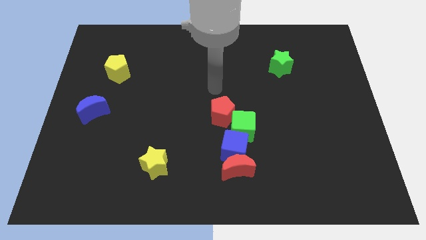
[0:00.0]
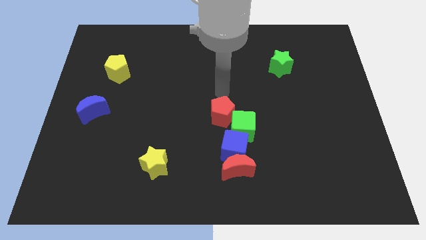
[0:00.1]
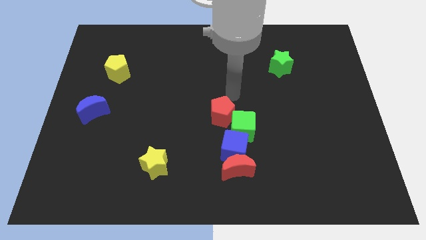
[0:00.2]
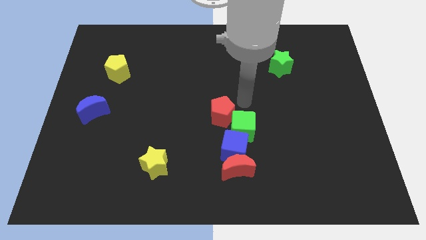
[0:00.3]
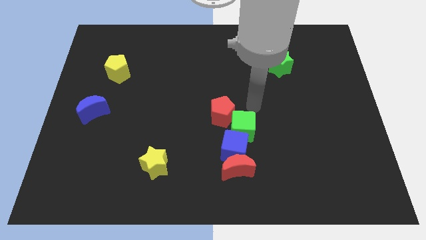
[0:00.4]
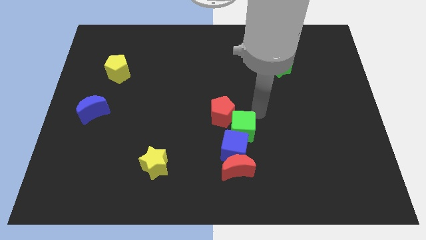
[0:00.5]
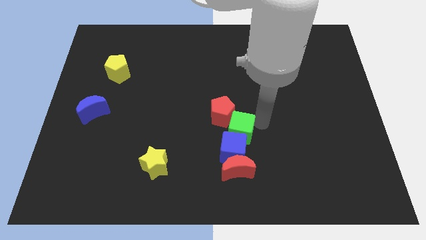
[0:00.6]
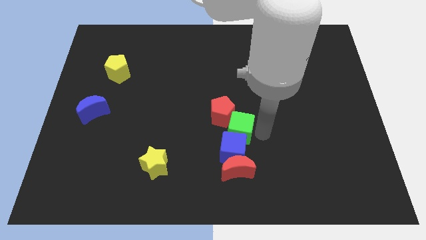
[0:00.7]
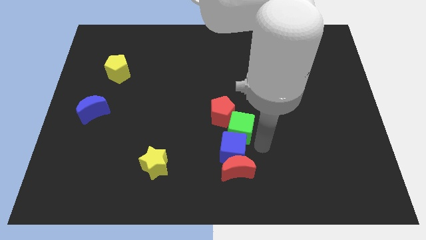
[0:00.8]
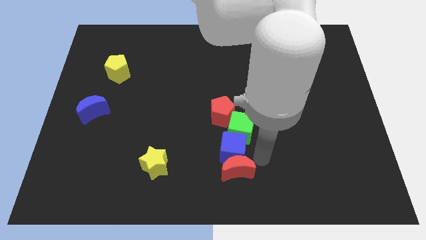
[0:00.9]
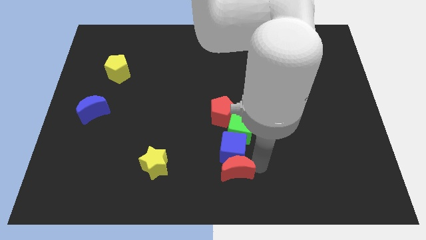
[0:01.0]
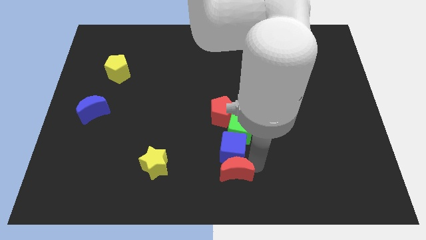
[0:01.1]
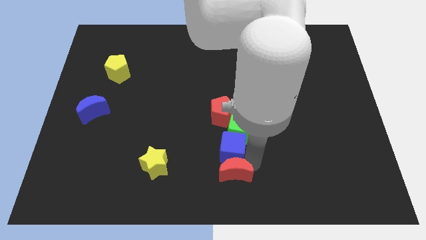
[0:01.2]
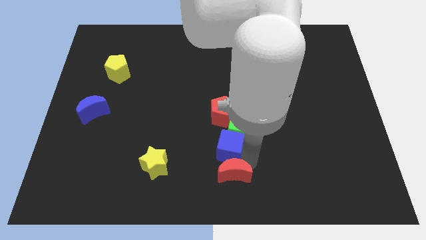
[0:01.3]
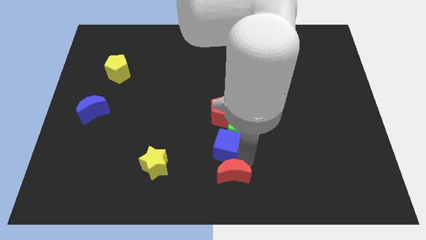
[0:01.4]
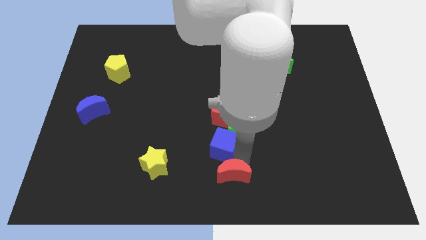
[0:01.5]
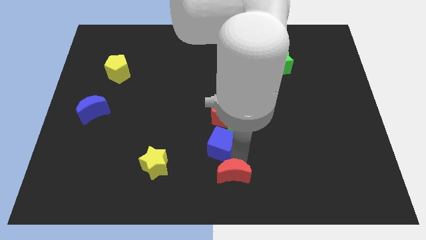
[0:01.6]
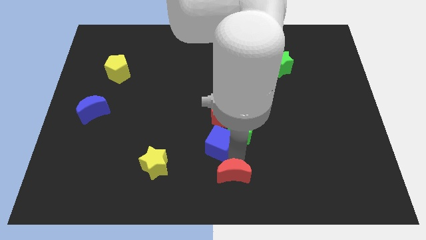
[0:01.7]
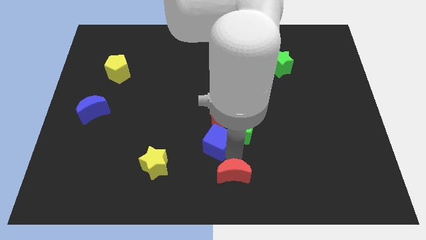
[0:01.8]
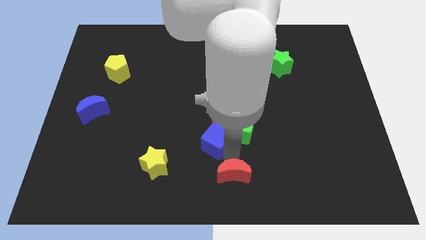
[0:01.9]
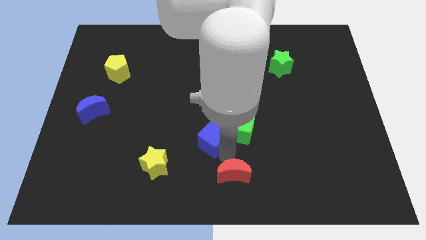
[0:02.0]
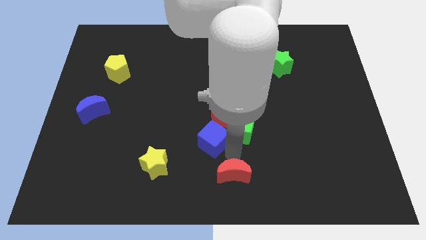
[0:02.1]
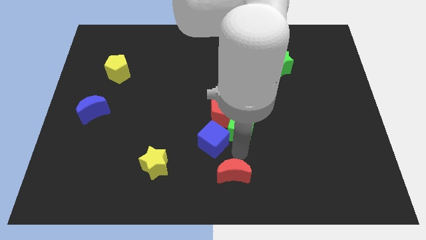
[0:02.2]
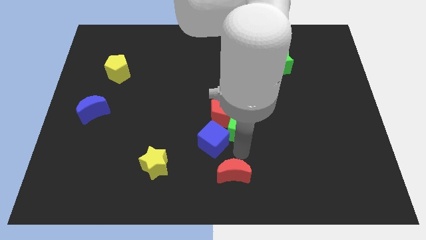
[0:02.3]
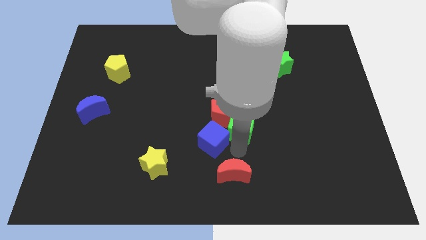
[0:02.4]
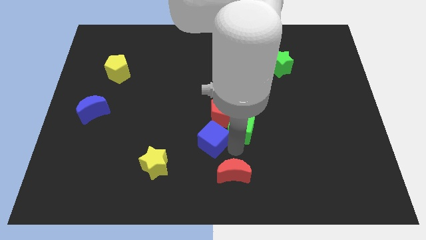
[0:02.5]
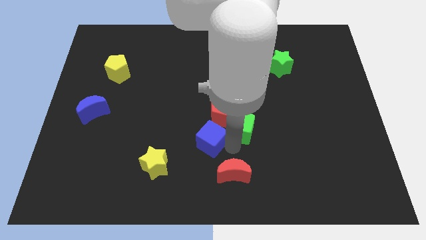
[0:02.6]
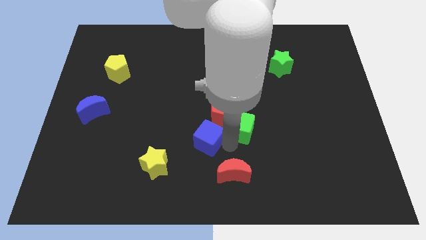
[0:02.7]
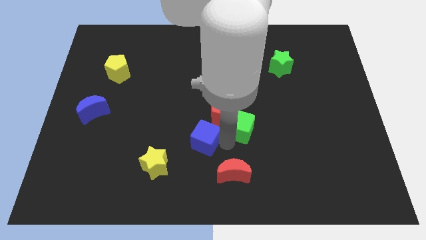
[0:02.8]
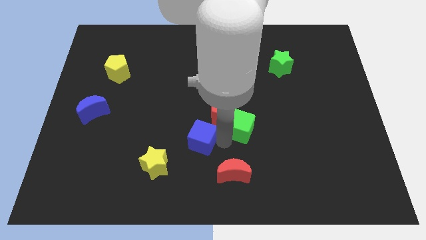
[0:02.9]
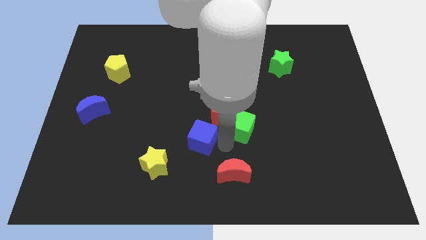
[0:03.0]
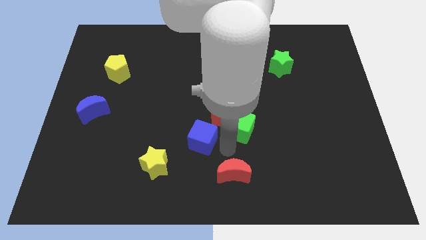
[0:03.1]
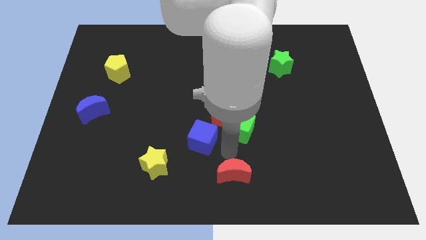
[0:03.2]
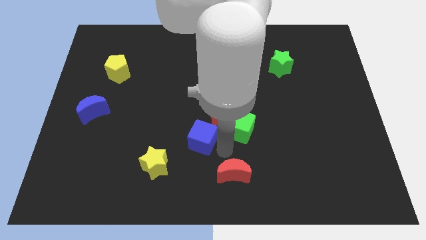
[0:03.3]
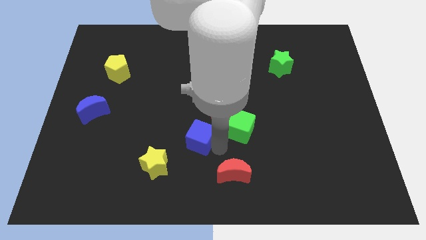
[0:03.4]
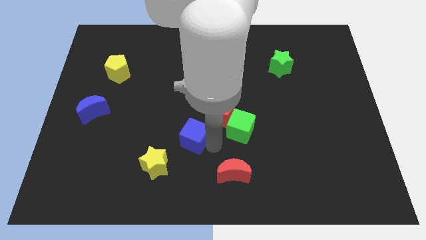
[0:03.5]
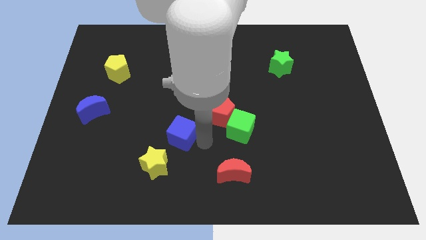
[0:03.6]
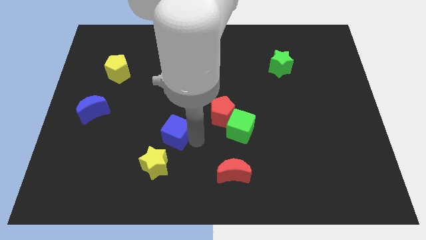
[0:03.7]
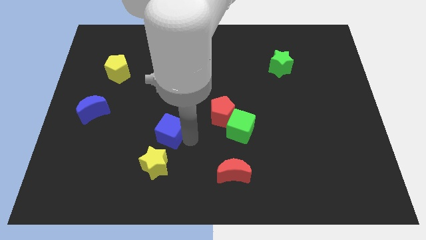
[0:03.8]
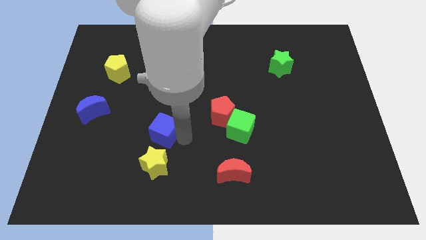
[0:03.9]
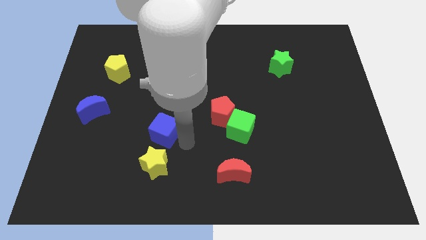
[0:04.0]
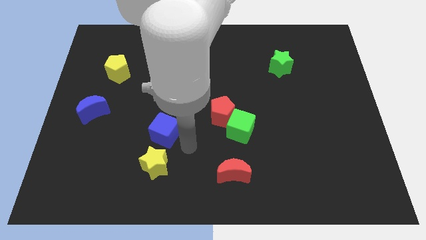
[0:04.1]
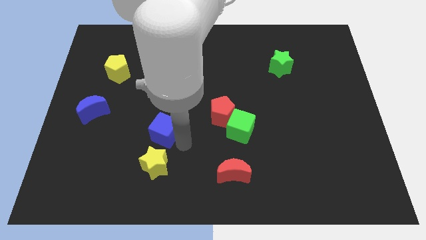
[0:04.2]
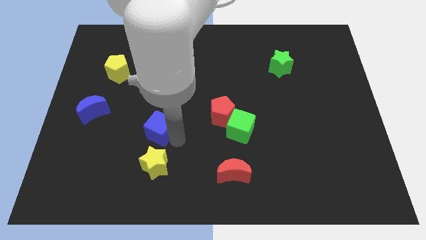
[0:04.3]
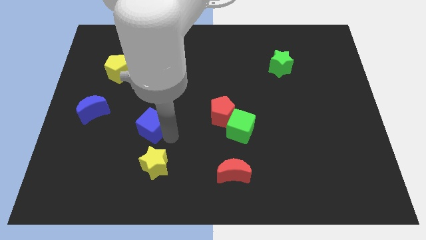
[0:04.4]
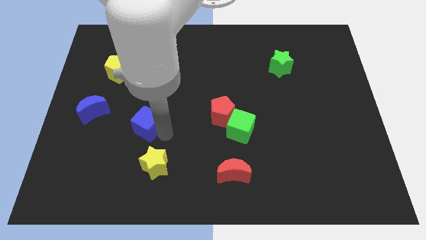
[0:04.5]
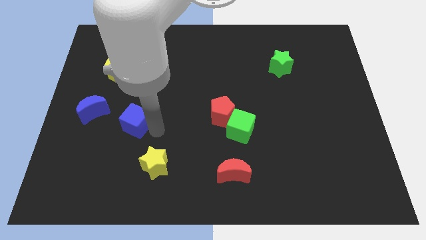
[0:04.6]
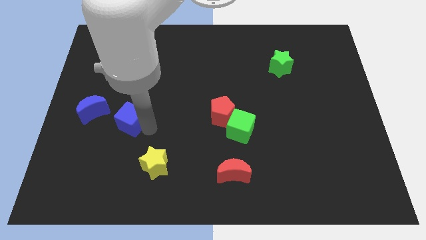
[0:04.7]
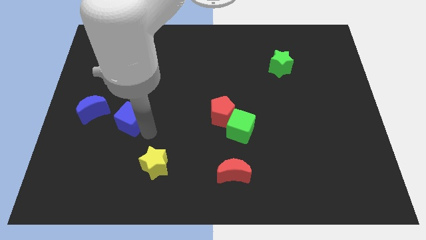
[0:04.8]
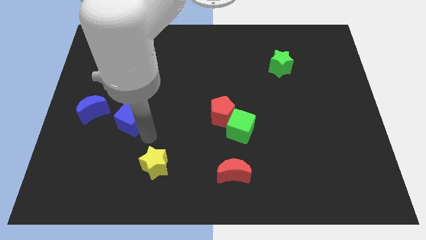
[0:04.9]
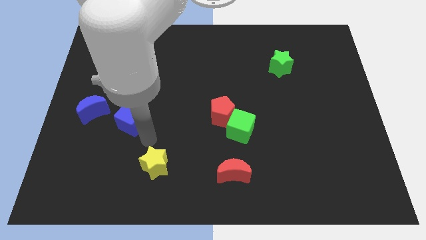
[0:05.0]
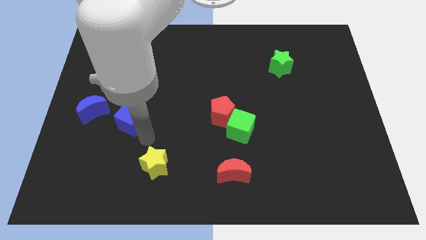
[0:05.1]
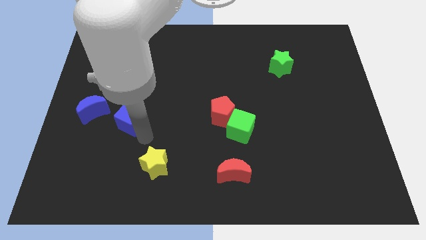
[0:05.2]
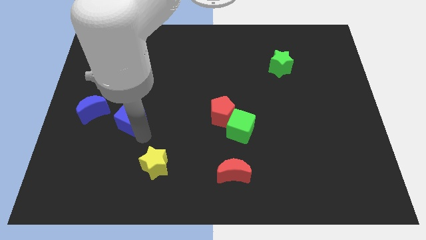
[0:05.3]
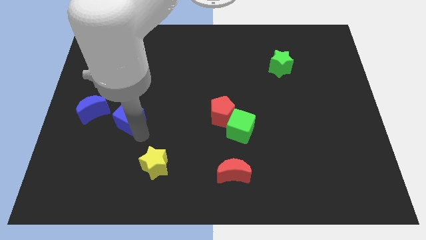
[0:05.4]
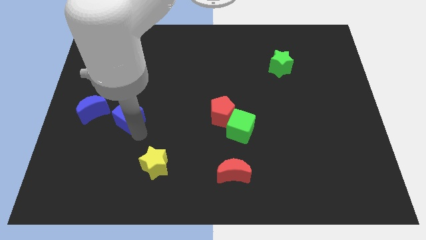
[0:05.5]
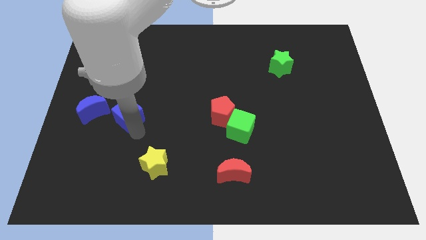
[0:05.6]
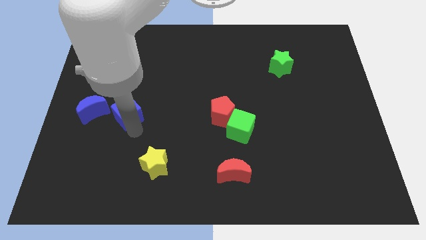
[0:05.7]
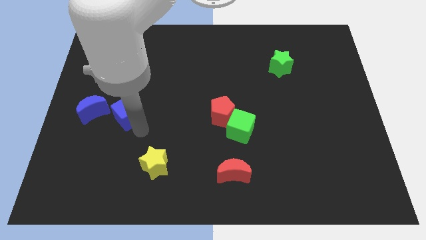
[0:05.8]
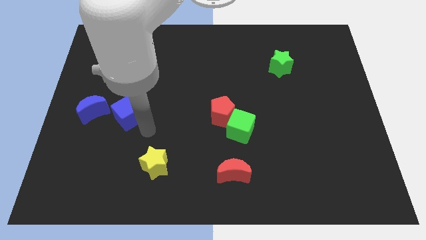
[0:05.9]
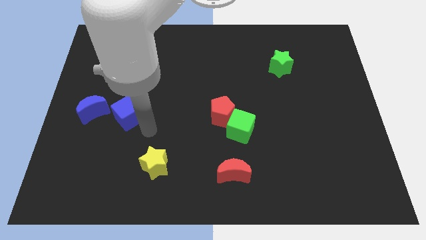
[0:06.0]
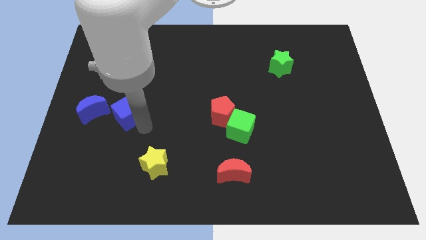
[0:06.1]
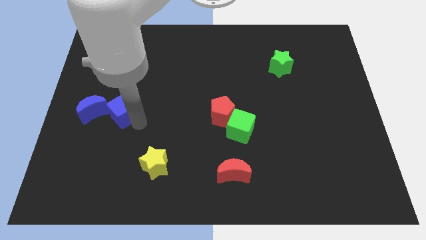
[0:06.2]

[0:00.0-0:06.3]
push the blue cube below the yellow pentagon
